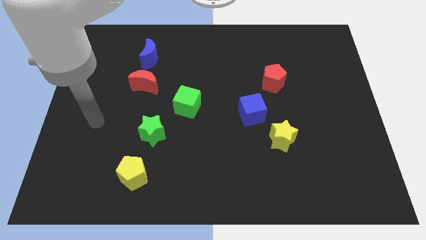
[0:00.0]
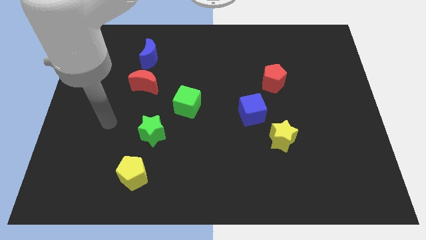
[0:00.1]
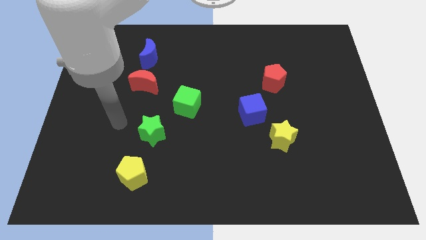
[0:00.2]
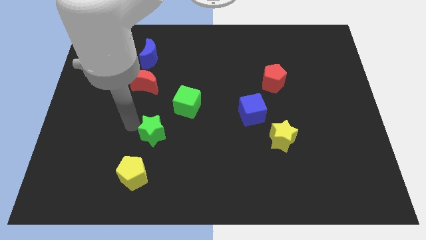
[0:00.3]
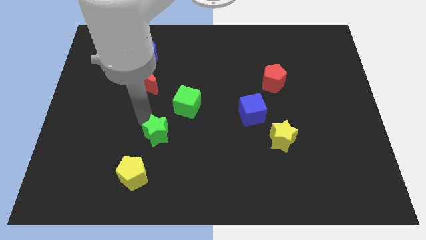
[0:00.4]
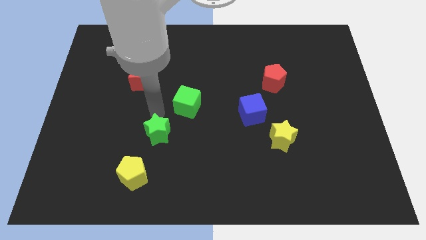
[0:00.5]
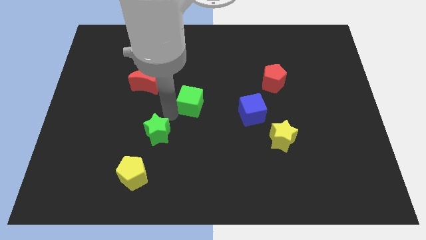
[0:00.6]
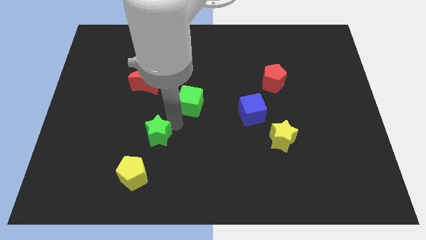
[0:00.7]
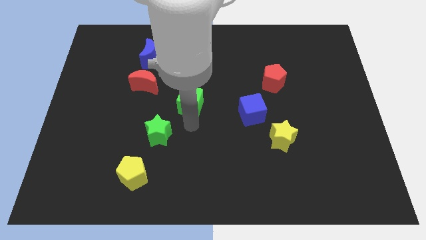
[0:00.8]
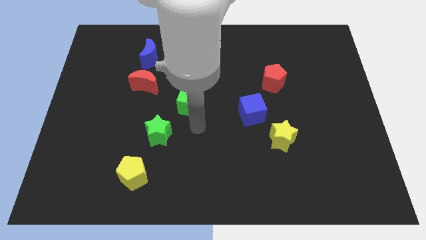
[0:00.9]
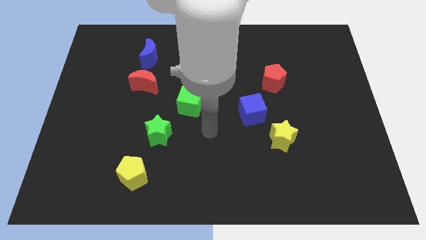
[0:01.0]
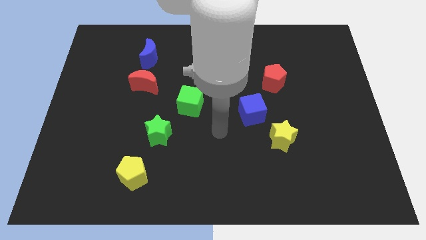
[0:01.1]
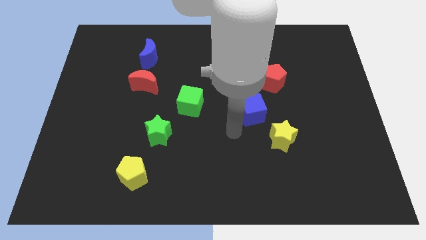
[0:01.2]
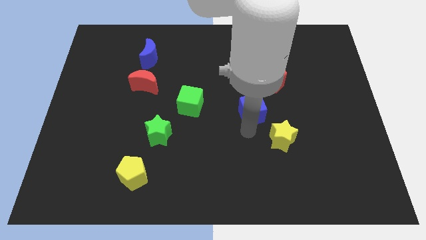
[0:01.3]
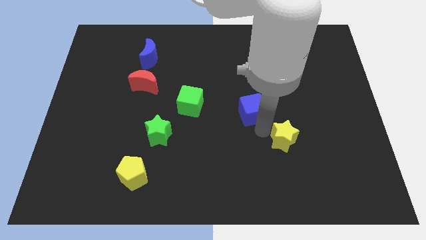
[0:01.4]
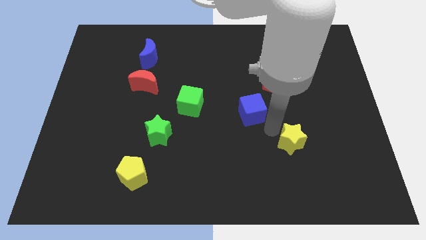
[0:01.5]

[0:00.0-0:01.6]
separate the blue cube from the yellow star

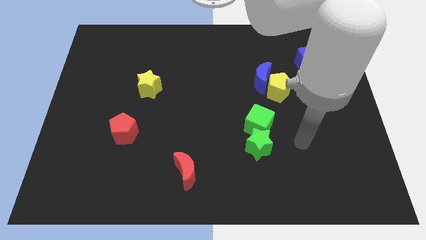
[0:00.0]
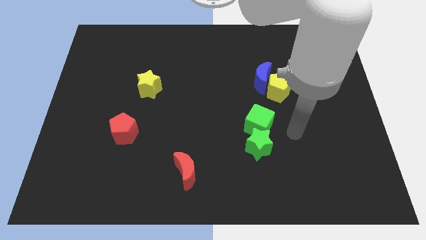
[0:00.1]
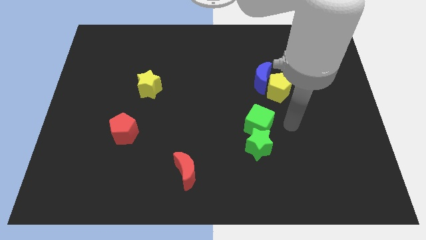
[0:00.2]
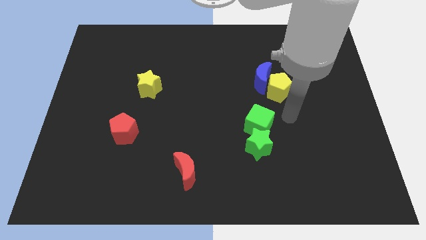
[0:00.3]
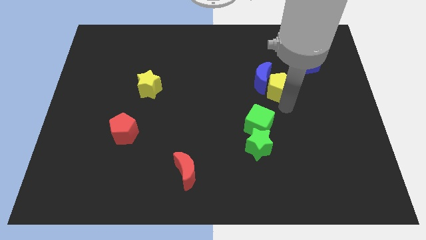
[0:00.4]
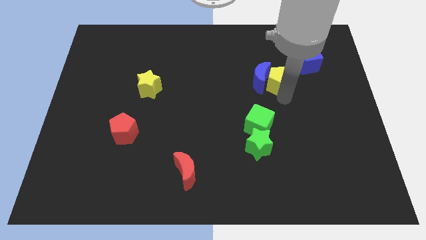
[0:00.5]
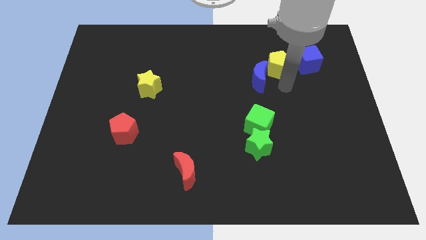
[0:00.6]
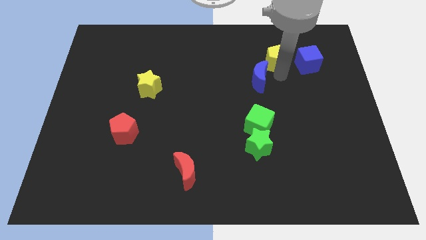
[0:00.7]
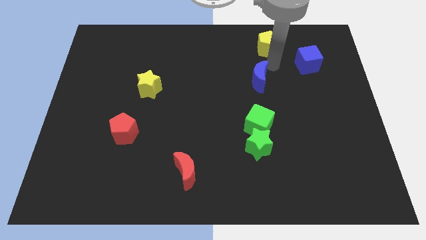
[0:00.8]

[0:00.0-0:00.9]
separate the blue moon from the yellow pentagon

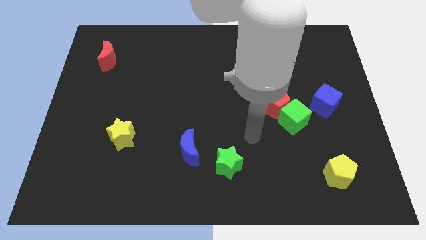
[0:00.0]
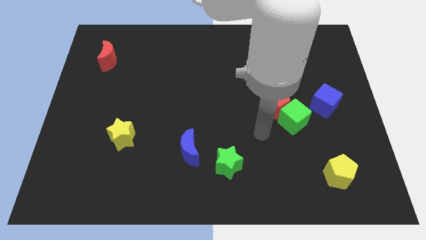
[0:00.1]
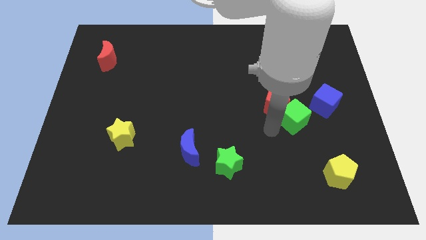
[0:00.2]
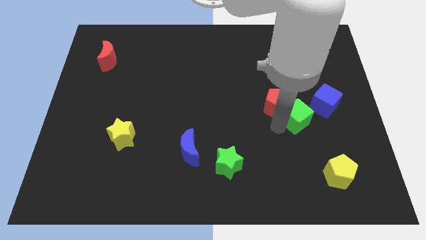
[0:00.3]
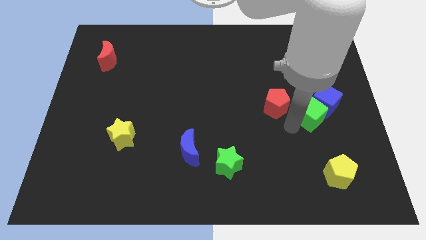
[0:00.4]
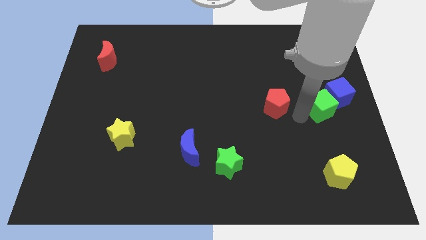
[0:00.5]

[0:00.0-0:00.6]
pull the red pentagon apart from the green cube

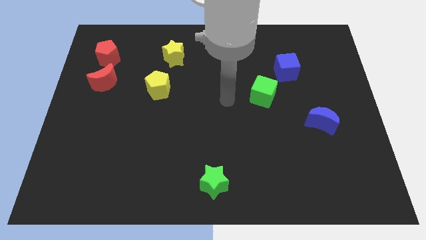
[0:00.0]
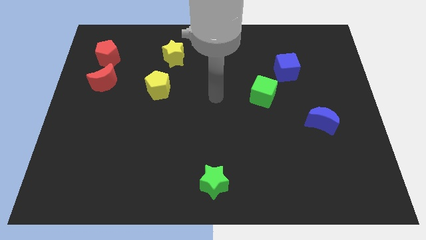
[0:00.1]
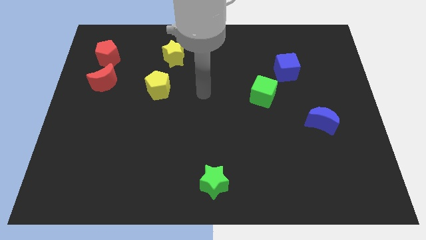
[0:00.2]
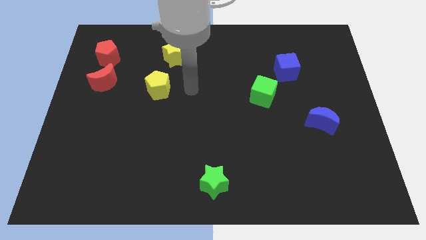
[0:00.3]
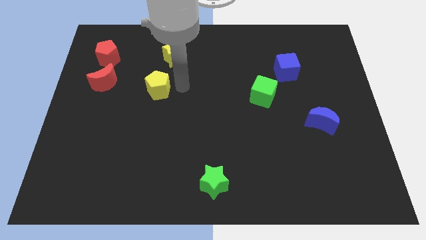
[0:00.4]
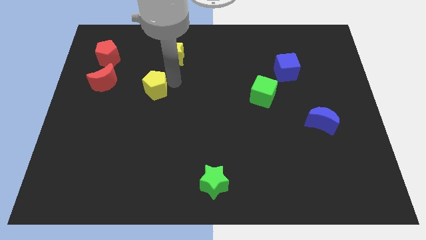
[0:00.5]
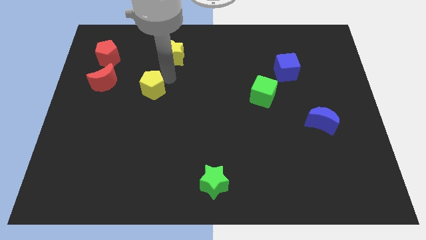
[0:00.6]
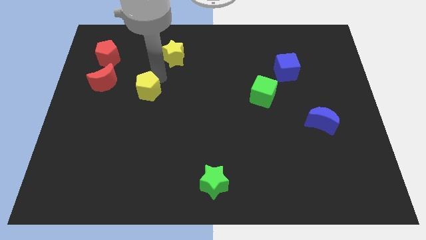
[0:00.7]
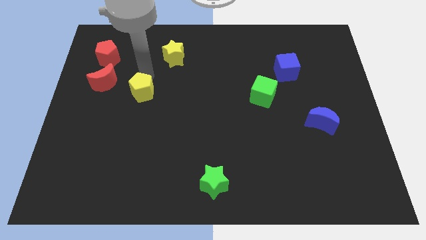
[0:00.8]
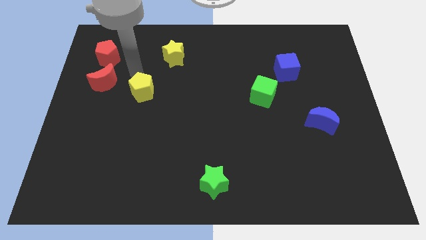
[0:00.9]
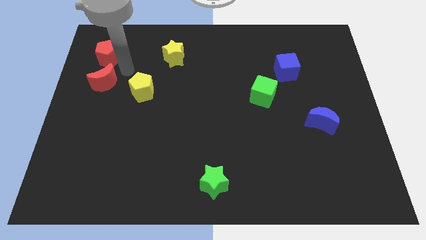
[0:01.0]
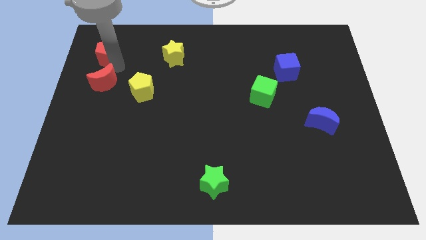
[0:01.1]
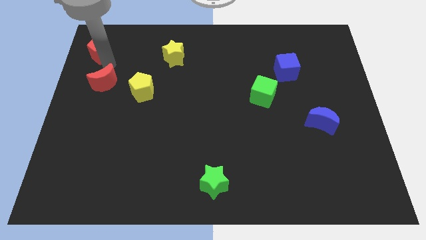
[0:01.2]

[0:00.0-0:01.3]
separate the red moon from the red pentagon

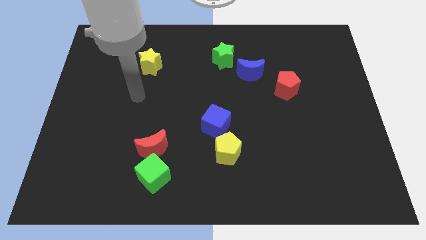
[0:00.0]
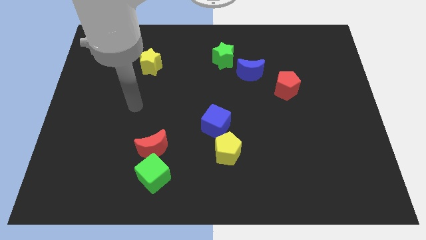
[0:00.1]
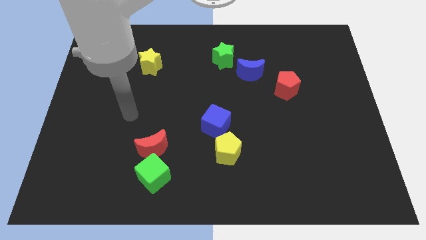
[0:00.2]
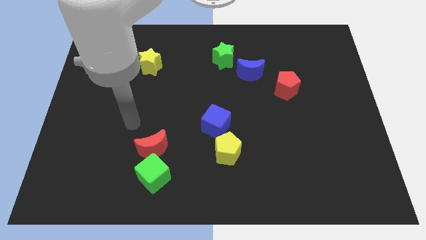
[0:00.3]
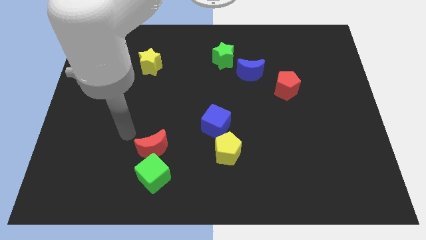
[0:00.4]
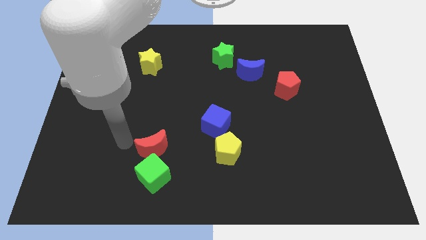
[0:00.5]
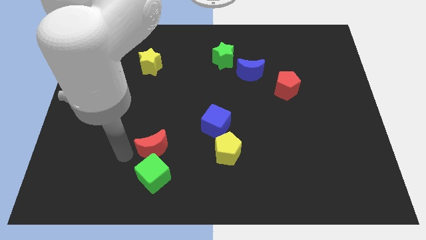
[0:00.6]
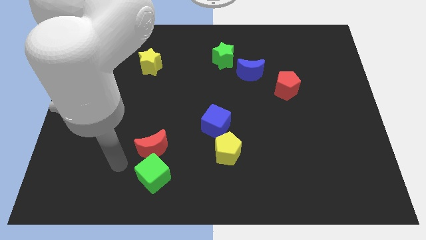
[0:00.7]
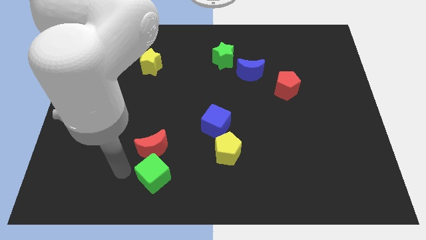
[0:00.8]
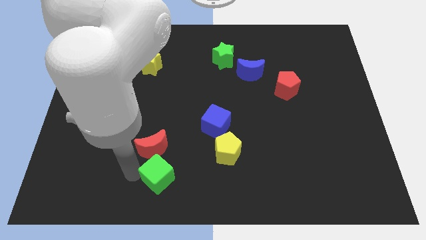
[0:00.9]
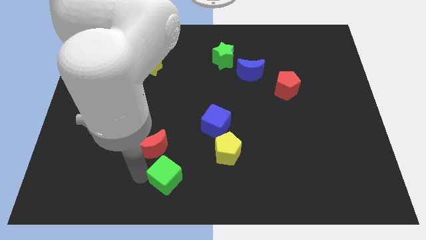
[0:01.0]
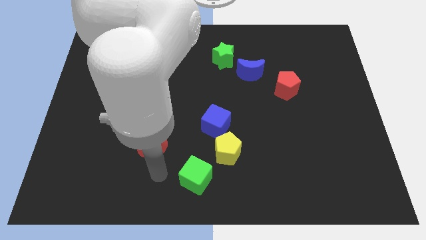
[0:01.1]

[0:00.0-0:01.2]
separate the red moon from the green cube

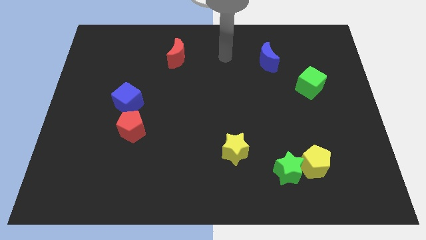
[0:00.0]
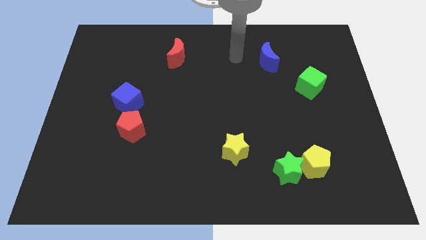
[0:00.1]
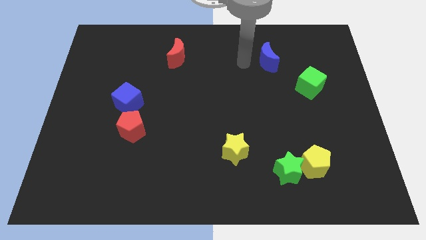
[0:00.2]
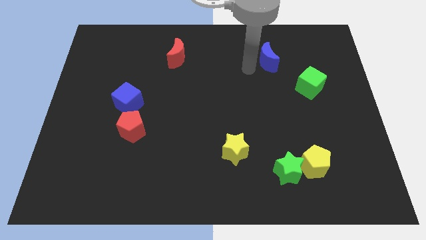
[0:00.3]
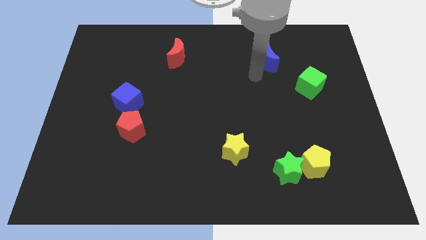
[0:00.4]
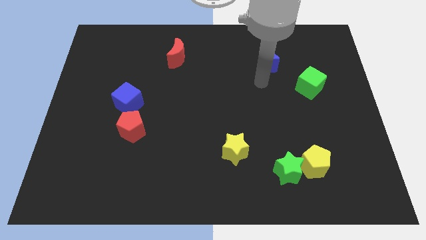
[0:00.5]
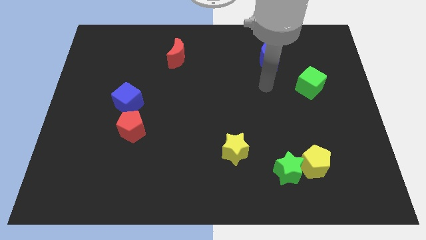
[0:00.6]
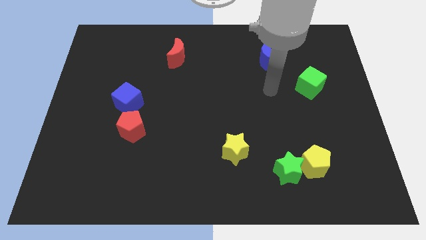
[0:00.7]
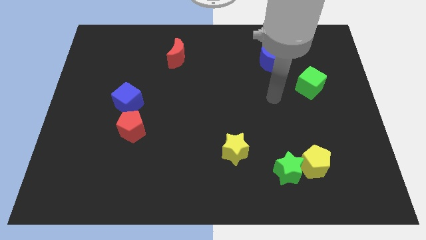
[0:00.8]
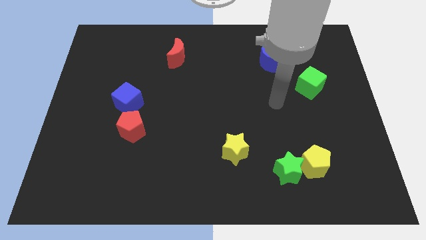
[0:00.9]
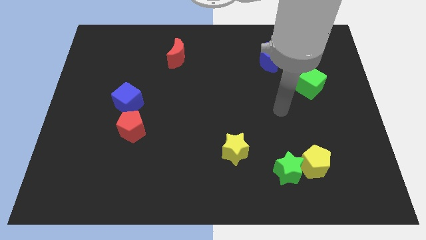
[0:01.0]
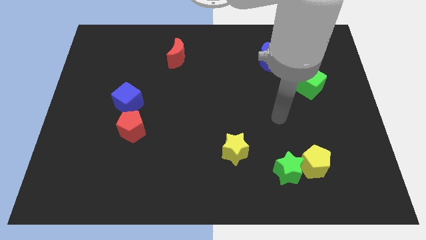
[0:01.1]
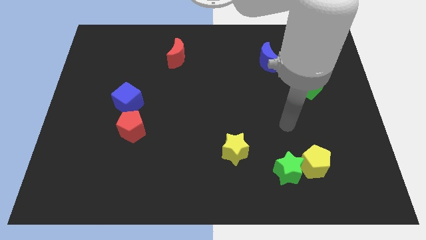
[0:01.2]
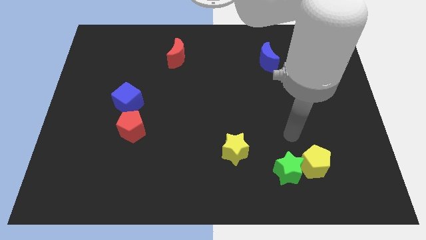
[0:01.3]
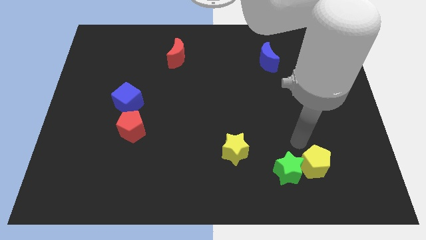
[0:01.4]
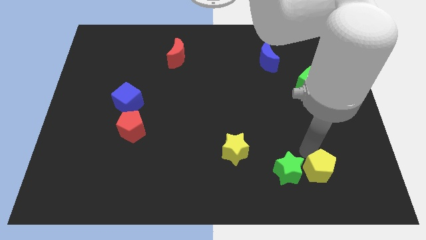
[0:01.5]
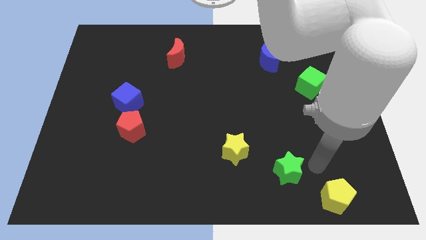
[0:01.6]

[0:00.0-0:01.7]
pull the green star apart from the yellow pentagon

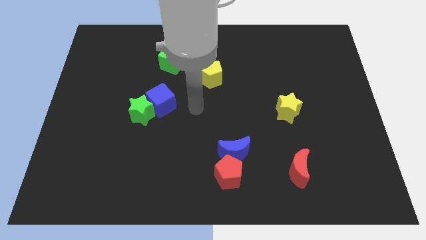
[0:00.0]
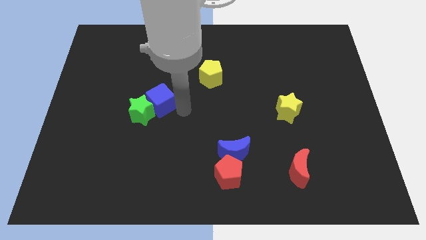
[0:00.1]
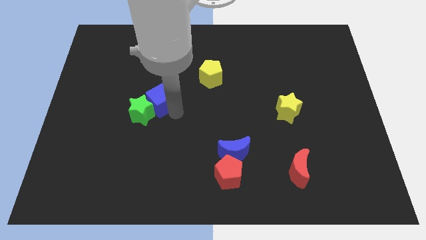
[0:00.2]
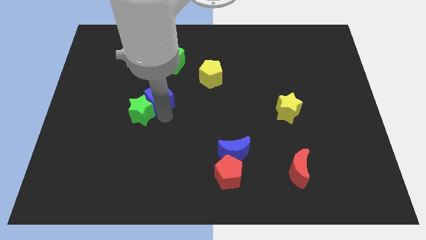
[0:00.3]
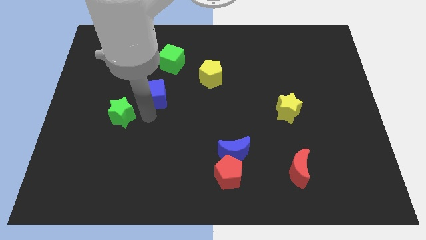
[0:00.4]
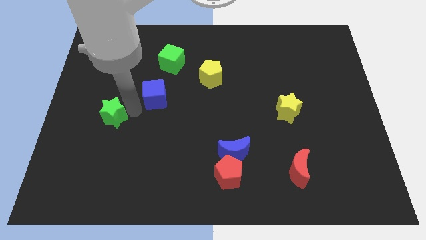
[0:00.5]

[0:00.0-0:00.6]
move the blue cube away from the green star

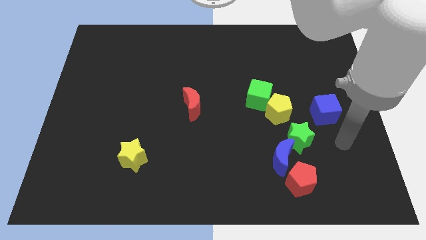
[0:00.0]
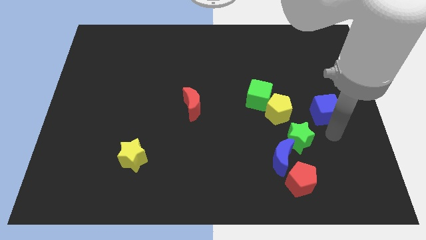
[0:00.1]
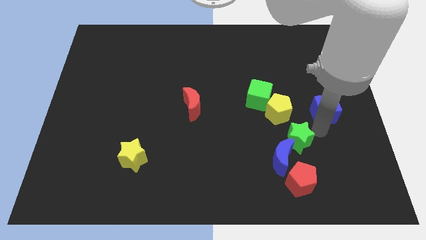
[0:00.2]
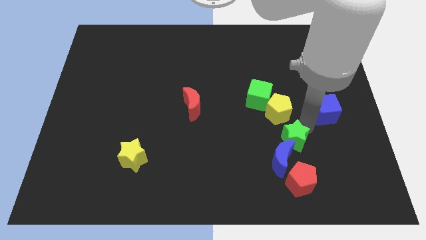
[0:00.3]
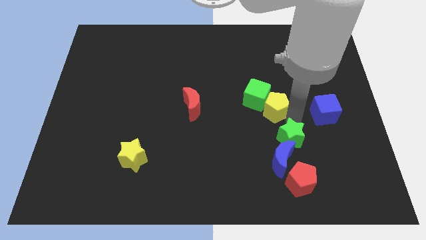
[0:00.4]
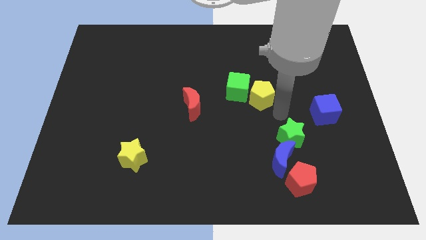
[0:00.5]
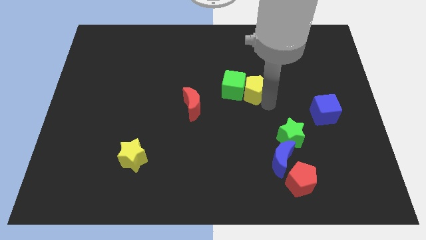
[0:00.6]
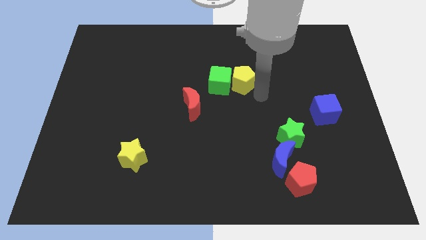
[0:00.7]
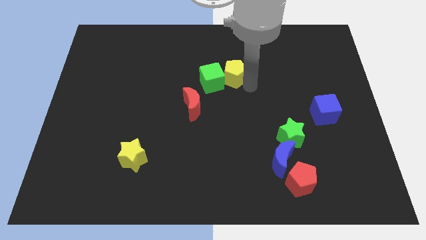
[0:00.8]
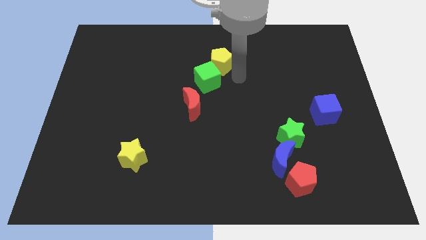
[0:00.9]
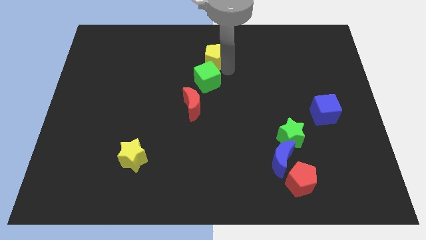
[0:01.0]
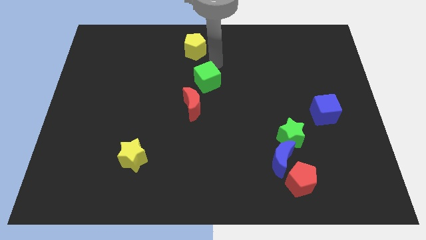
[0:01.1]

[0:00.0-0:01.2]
pull the green cube apart from the yellow pentagon
